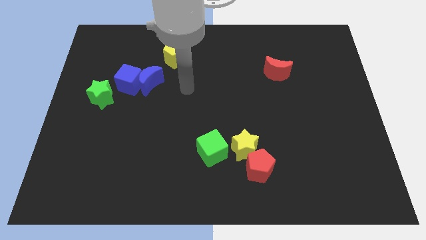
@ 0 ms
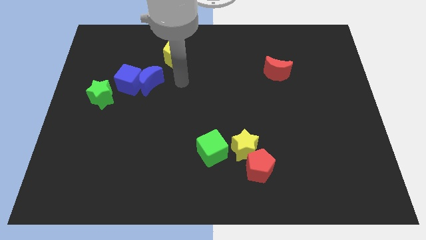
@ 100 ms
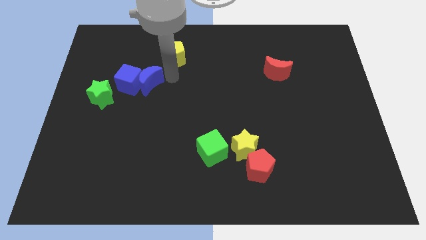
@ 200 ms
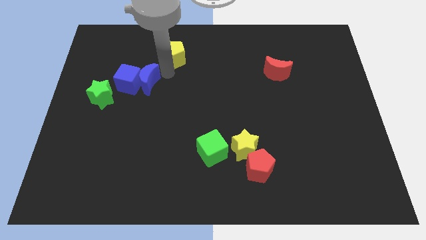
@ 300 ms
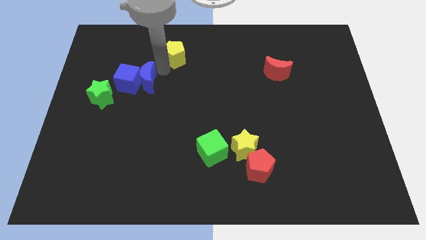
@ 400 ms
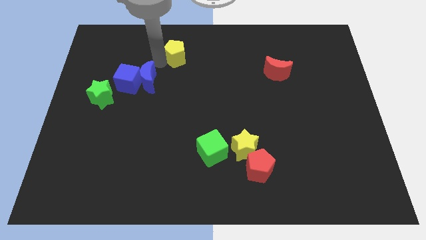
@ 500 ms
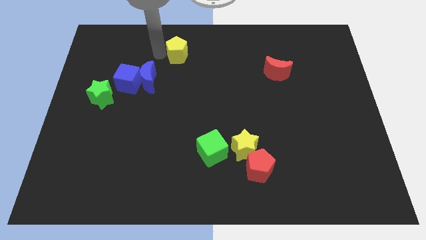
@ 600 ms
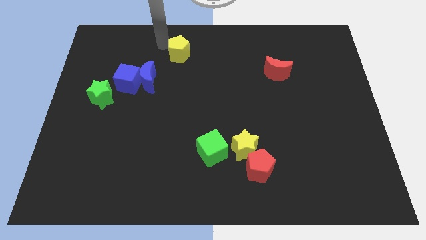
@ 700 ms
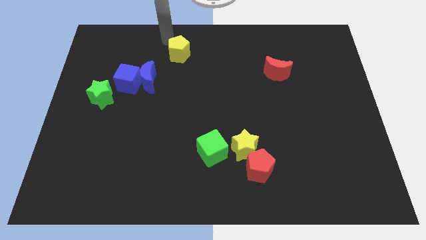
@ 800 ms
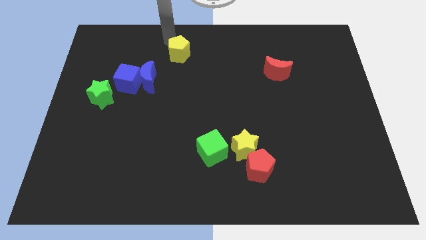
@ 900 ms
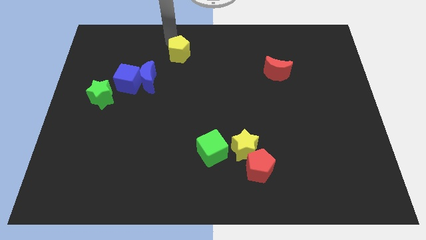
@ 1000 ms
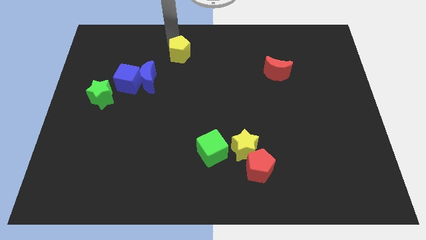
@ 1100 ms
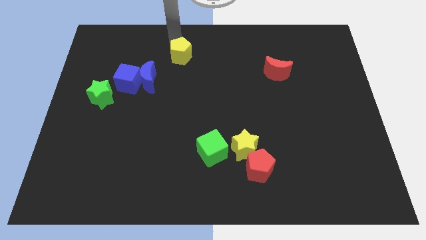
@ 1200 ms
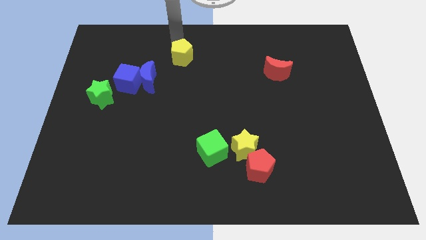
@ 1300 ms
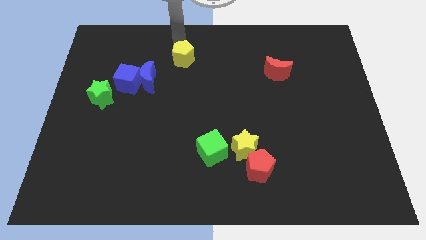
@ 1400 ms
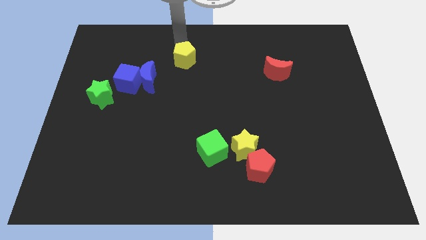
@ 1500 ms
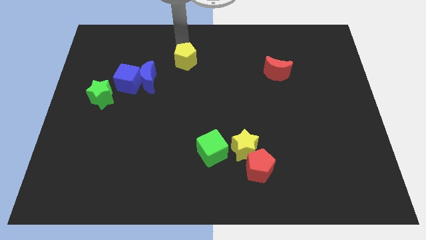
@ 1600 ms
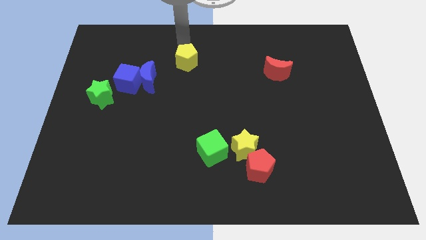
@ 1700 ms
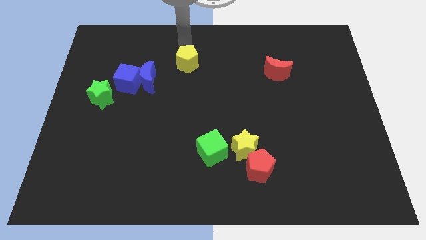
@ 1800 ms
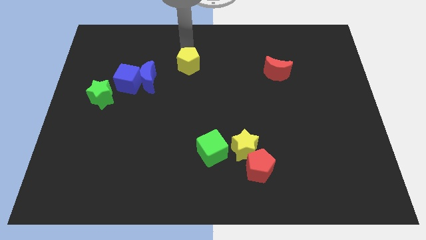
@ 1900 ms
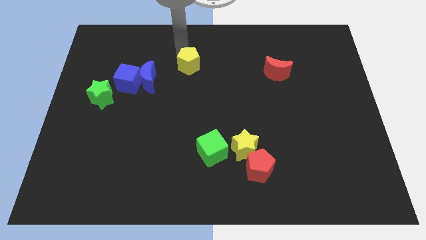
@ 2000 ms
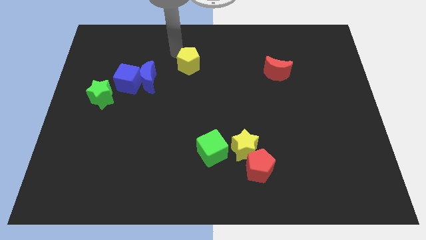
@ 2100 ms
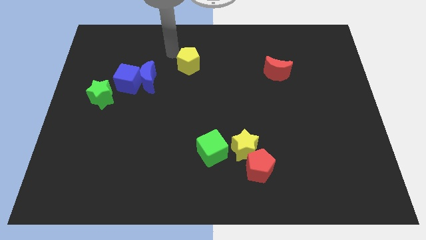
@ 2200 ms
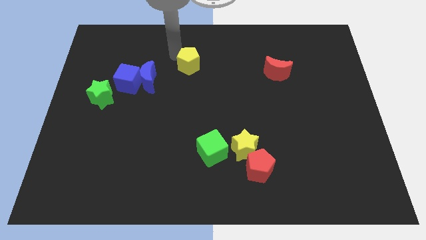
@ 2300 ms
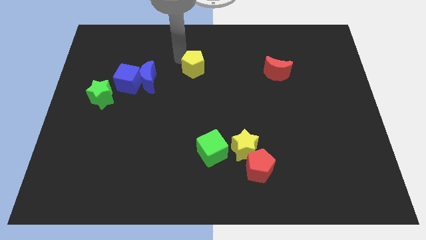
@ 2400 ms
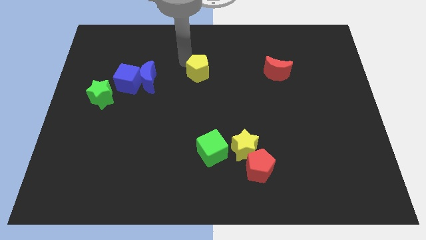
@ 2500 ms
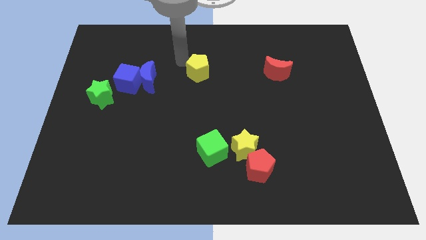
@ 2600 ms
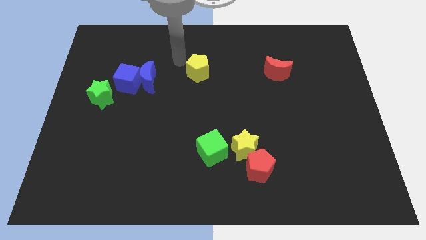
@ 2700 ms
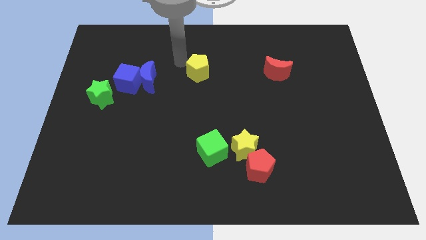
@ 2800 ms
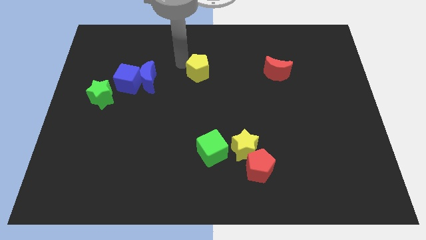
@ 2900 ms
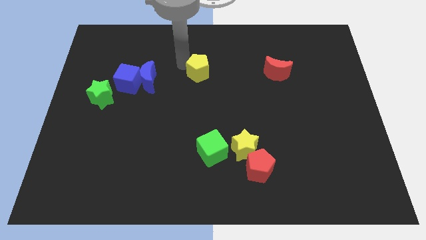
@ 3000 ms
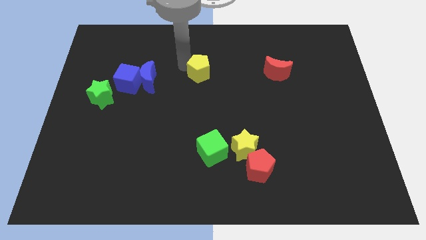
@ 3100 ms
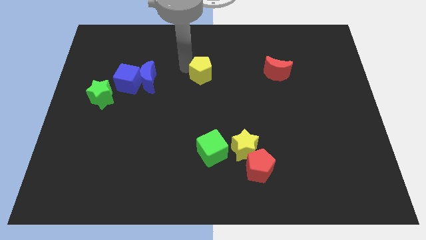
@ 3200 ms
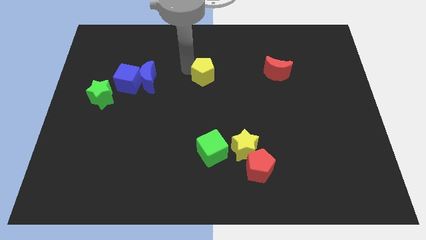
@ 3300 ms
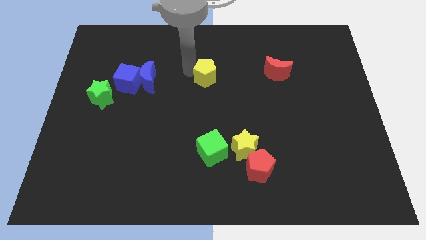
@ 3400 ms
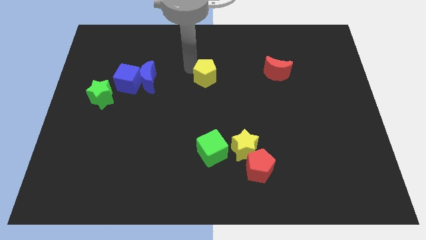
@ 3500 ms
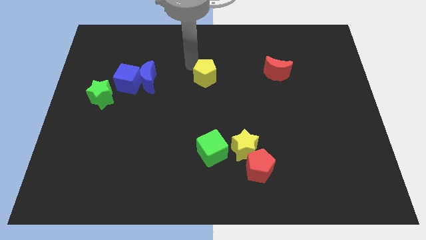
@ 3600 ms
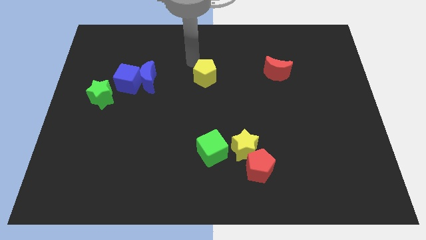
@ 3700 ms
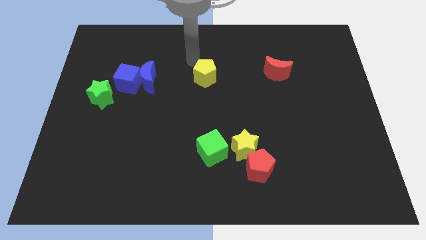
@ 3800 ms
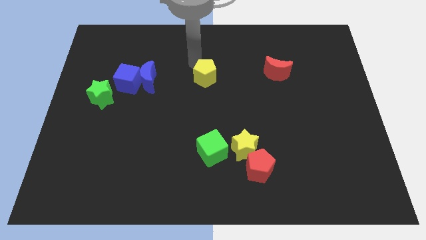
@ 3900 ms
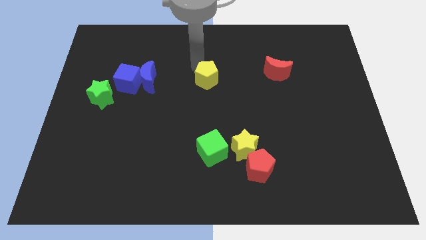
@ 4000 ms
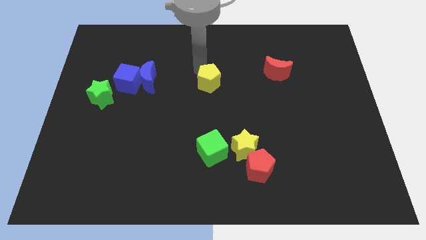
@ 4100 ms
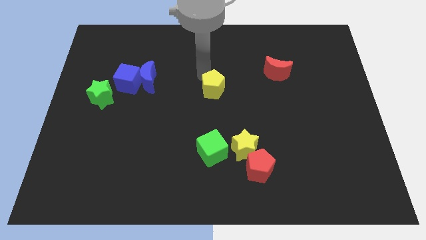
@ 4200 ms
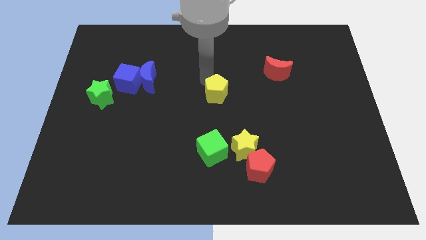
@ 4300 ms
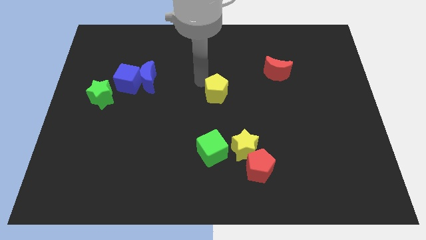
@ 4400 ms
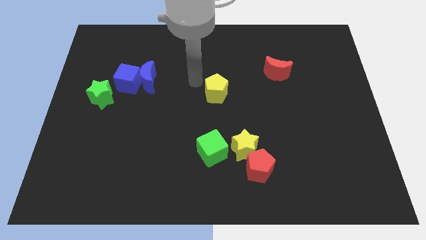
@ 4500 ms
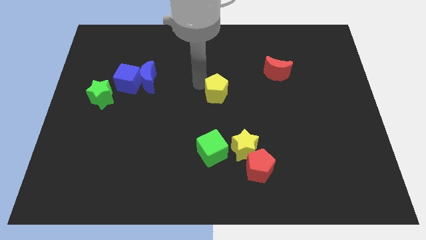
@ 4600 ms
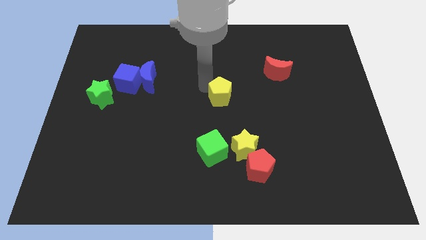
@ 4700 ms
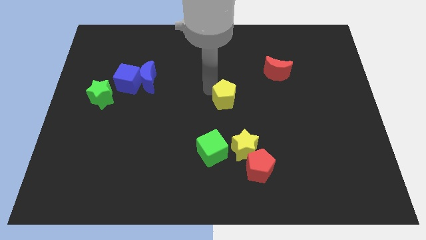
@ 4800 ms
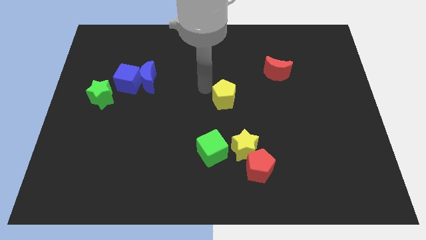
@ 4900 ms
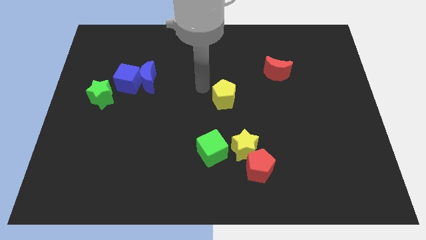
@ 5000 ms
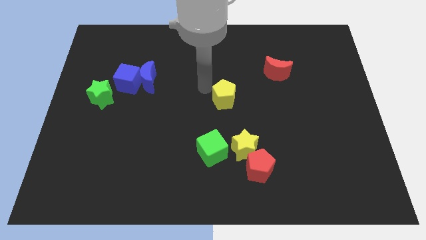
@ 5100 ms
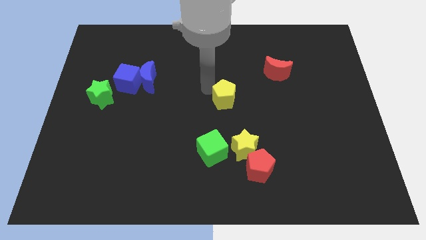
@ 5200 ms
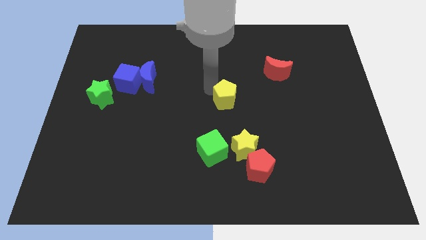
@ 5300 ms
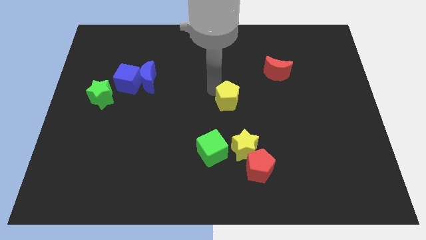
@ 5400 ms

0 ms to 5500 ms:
slide the yellow pentagon diagonally down and to the right

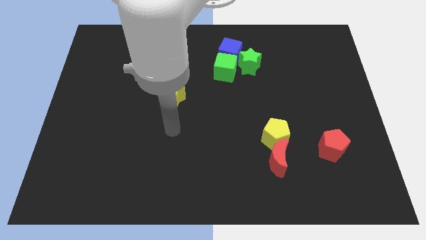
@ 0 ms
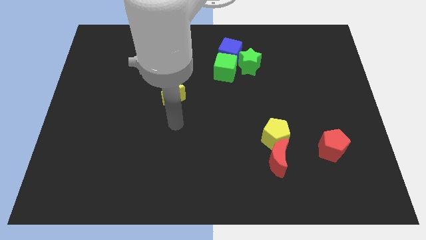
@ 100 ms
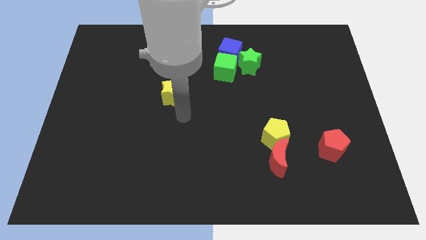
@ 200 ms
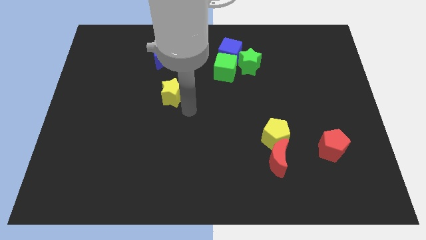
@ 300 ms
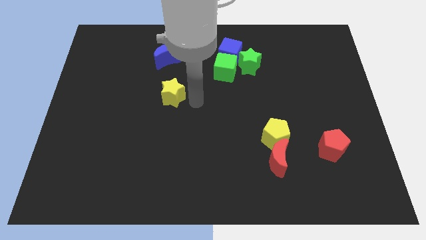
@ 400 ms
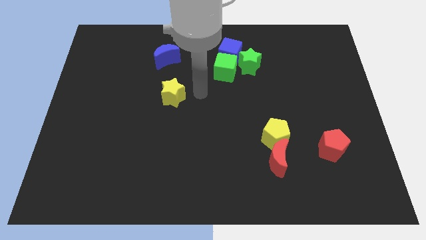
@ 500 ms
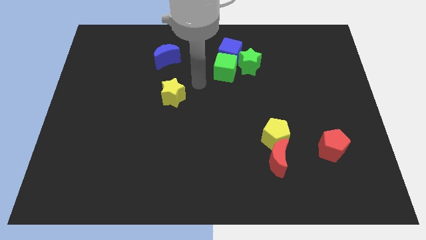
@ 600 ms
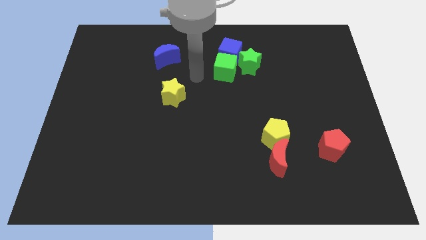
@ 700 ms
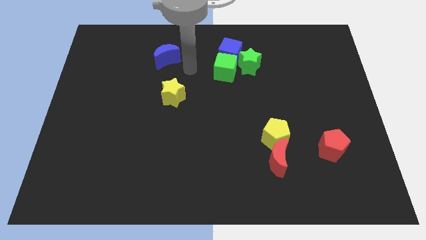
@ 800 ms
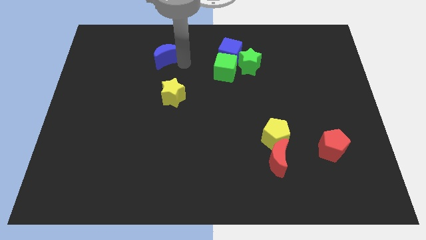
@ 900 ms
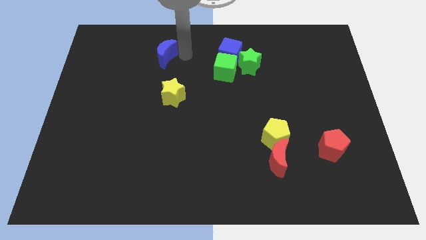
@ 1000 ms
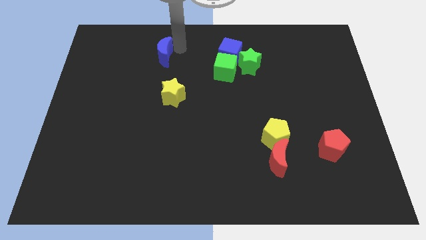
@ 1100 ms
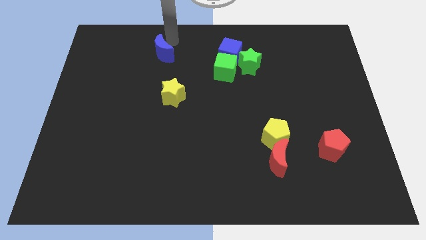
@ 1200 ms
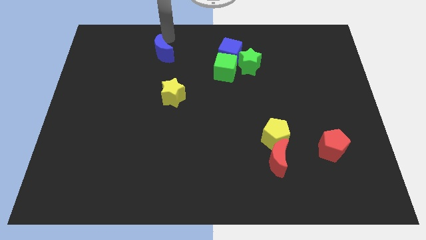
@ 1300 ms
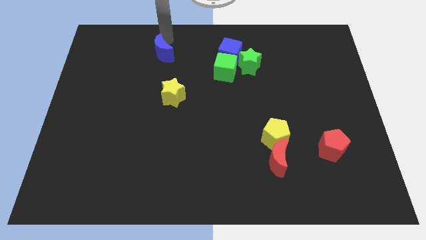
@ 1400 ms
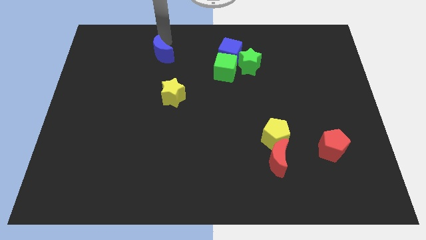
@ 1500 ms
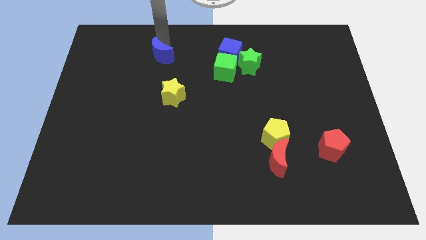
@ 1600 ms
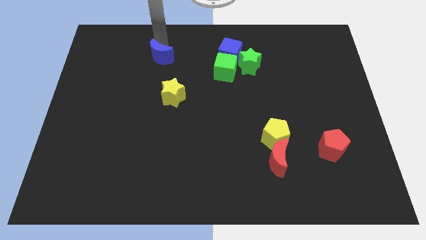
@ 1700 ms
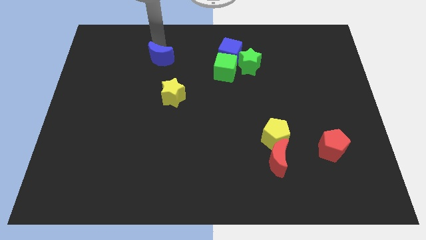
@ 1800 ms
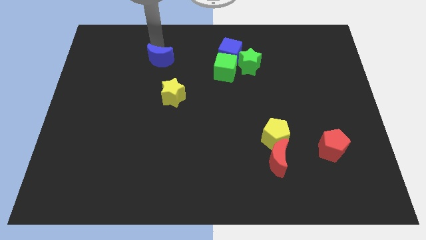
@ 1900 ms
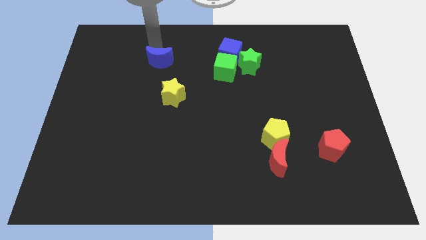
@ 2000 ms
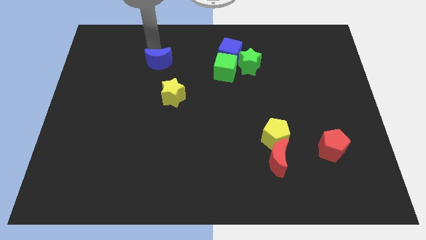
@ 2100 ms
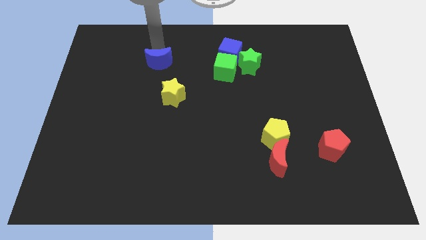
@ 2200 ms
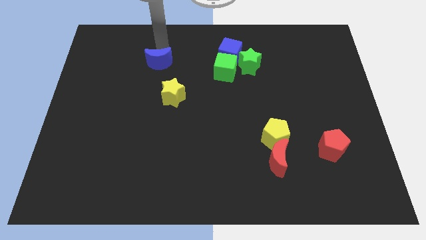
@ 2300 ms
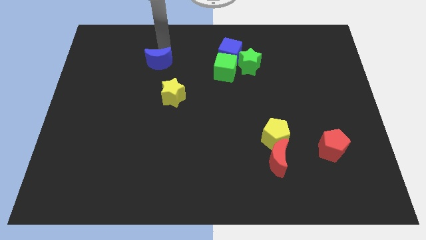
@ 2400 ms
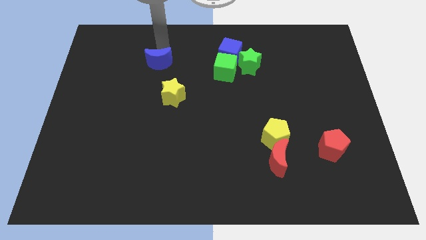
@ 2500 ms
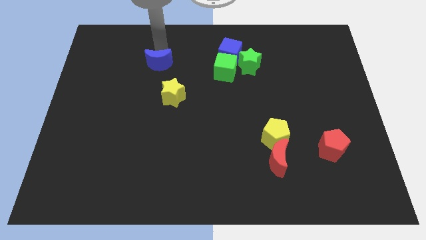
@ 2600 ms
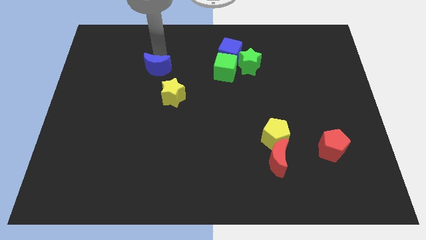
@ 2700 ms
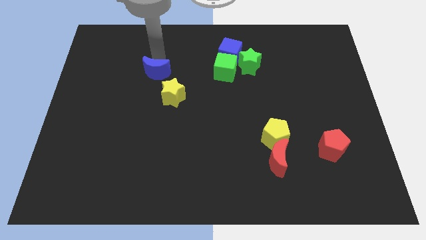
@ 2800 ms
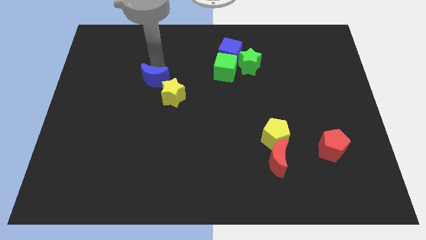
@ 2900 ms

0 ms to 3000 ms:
slide the blue moon a little bit downwards
